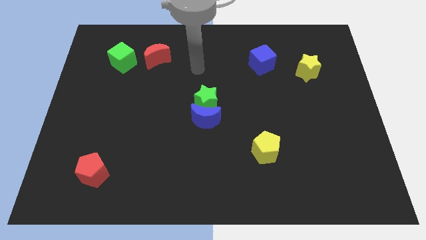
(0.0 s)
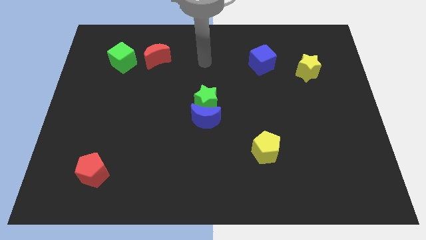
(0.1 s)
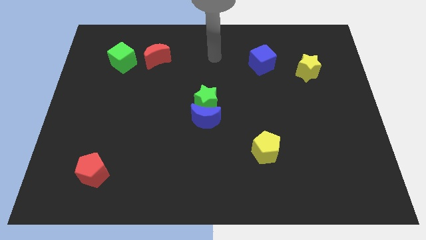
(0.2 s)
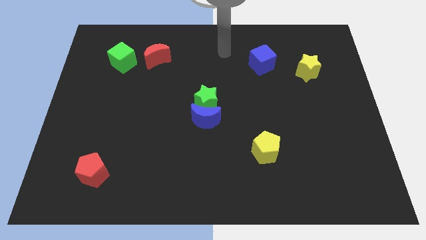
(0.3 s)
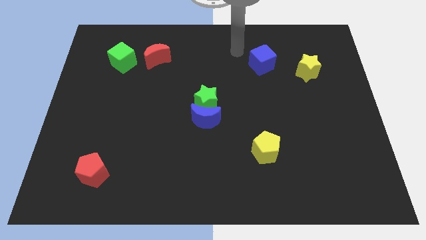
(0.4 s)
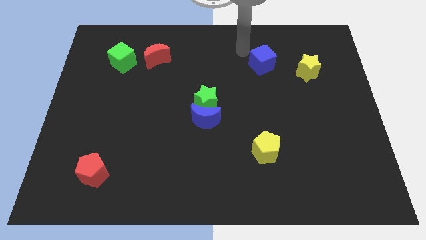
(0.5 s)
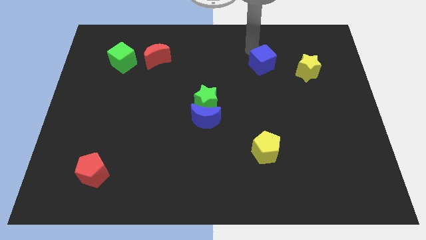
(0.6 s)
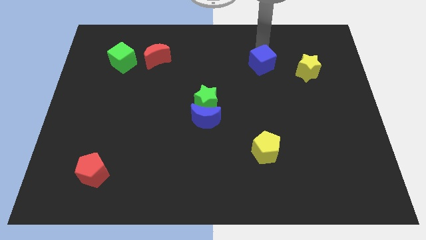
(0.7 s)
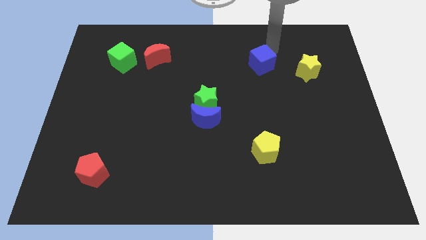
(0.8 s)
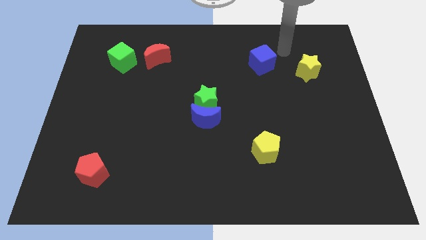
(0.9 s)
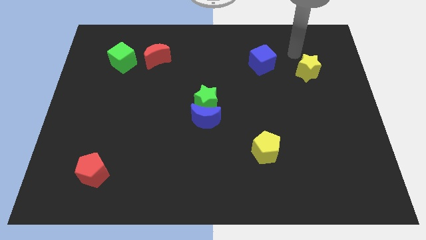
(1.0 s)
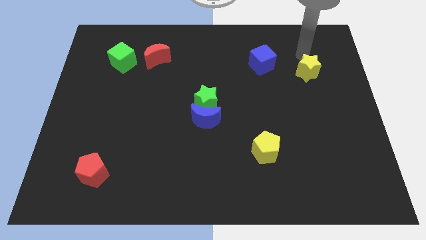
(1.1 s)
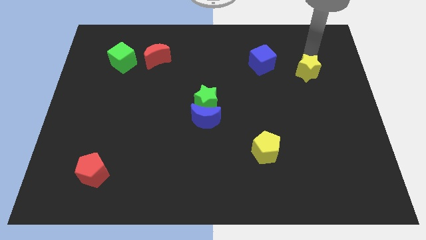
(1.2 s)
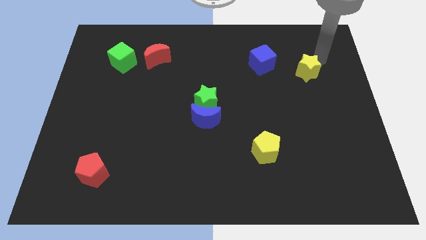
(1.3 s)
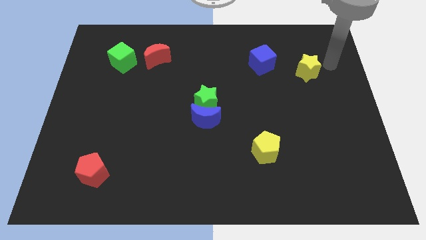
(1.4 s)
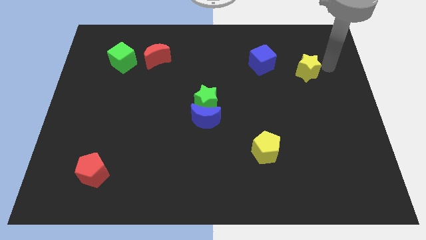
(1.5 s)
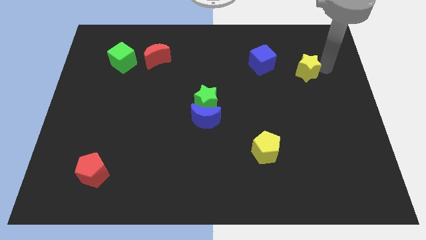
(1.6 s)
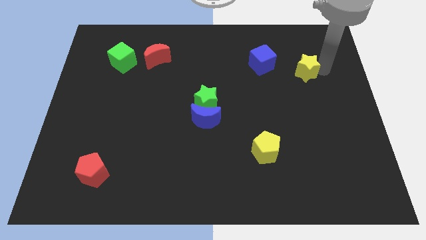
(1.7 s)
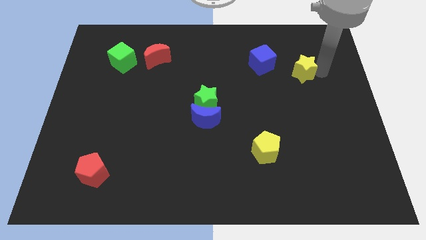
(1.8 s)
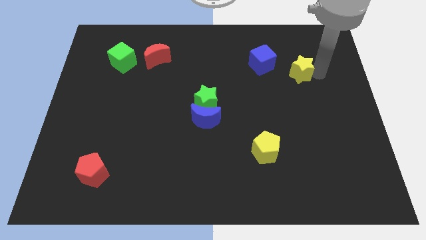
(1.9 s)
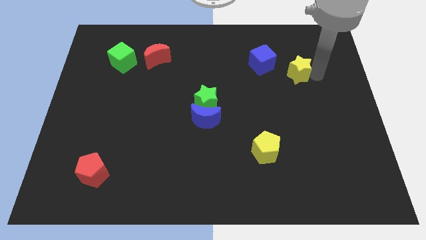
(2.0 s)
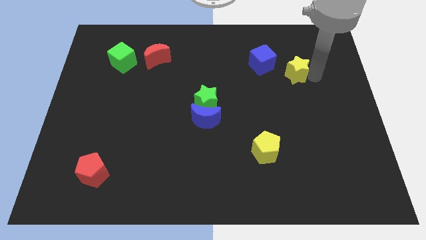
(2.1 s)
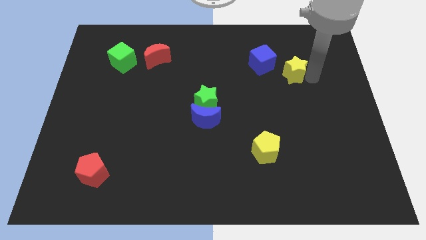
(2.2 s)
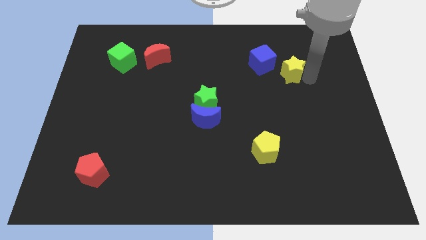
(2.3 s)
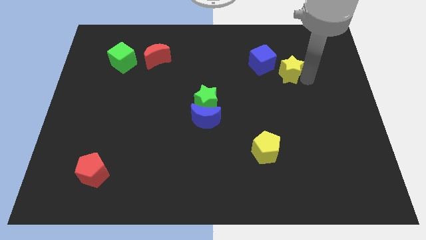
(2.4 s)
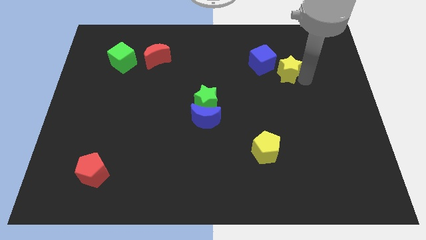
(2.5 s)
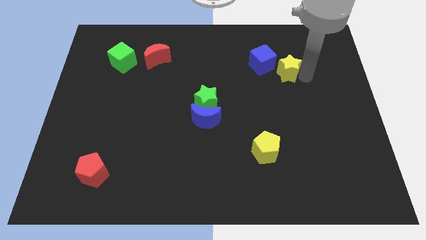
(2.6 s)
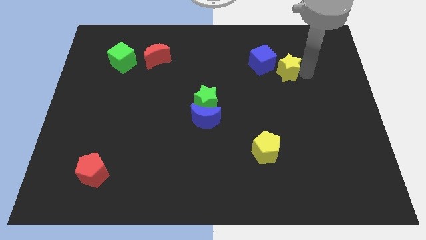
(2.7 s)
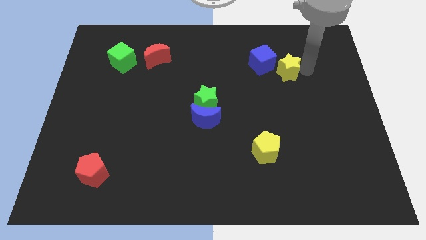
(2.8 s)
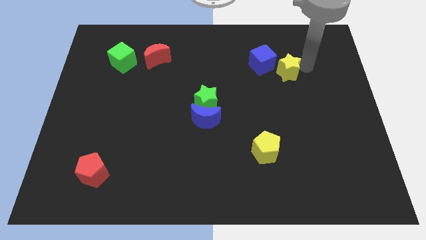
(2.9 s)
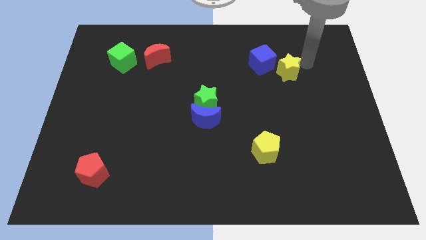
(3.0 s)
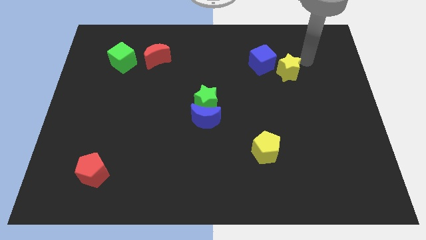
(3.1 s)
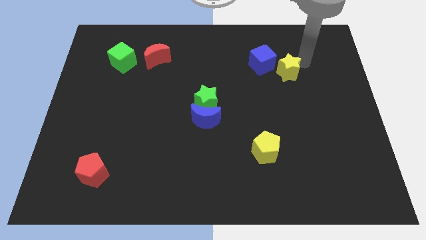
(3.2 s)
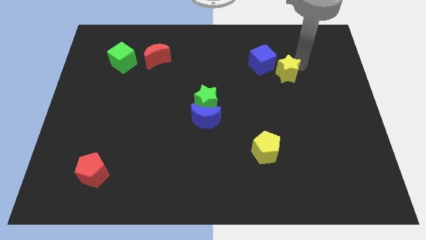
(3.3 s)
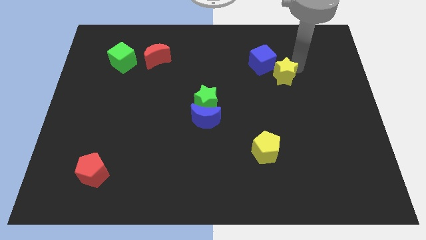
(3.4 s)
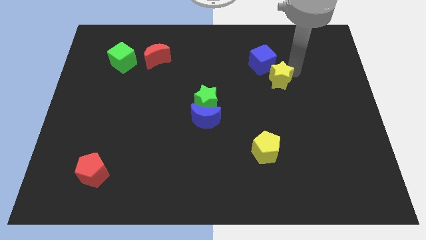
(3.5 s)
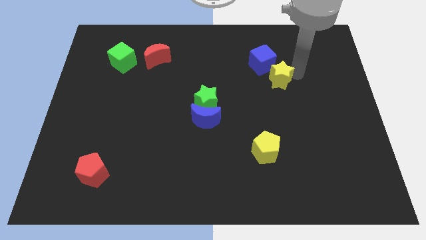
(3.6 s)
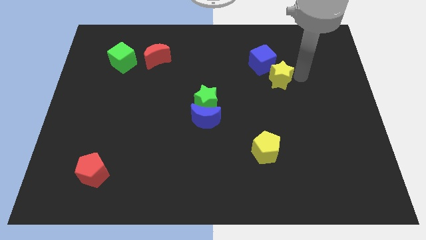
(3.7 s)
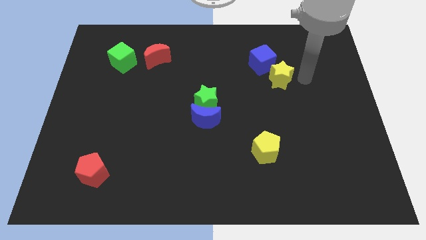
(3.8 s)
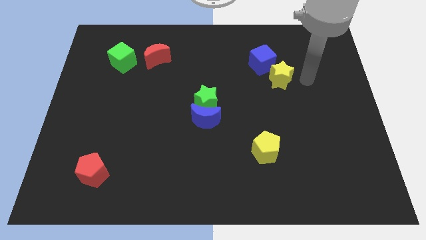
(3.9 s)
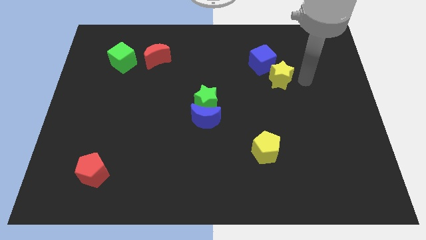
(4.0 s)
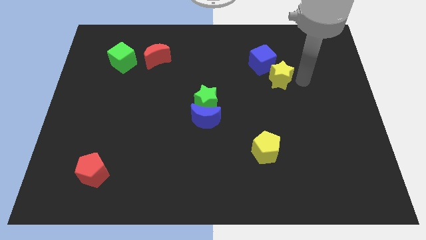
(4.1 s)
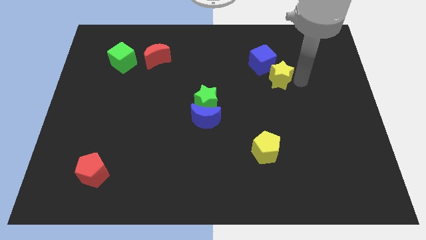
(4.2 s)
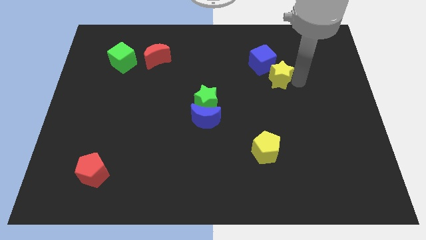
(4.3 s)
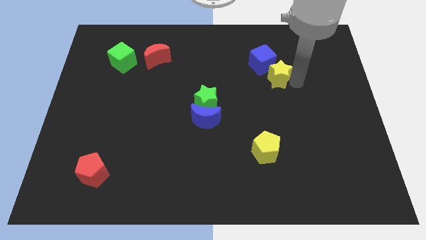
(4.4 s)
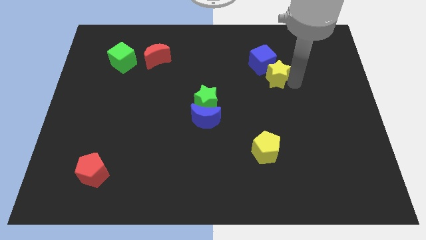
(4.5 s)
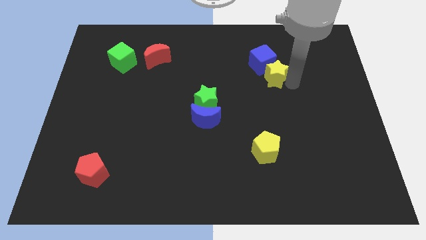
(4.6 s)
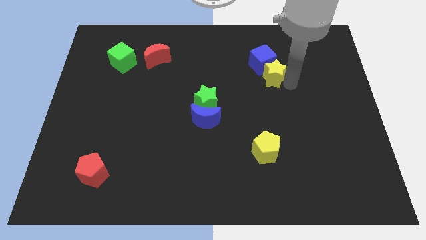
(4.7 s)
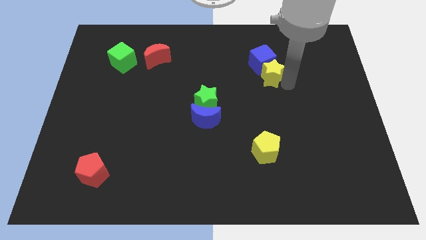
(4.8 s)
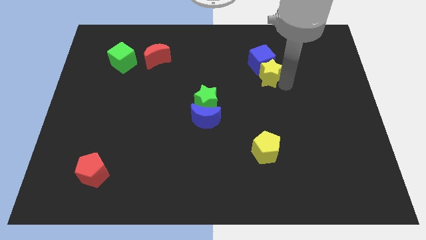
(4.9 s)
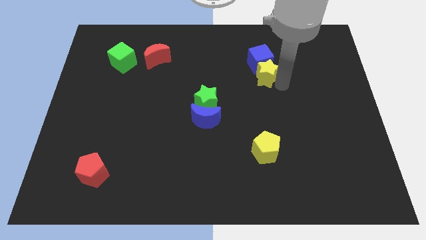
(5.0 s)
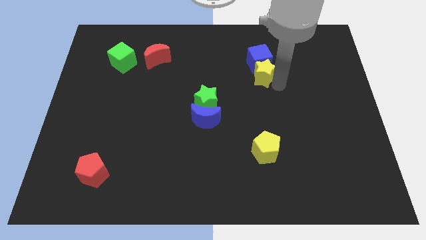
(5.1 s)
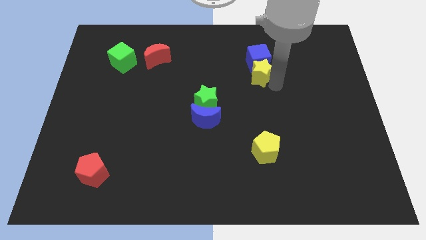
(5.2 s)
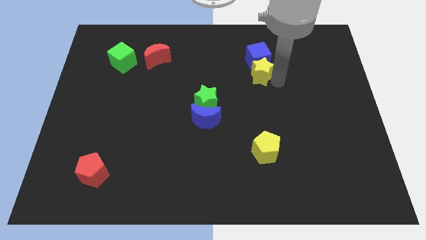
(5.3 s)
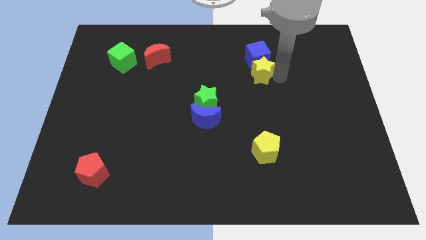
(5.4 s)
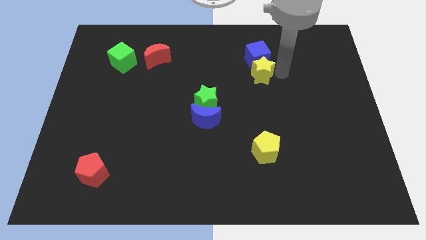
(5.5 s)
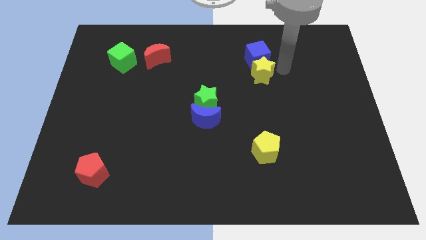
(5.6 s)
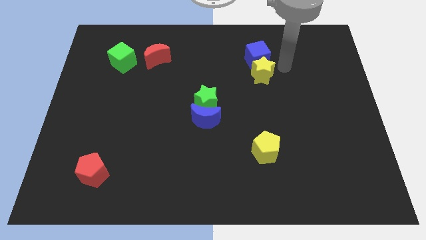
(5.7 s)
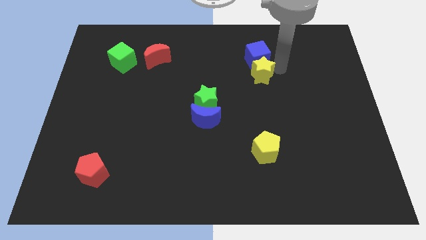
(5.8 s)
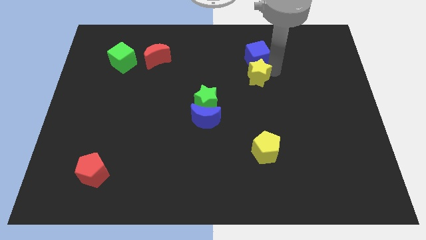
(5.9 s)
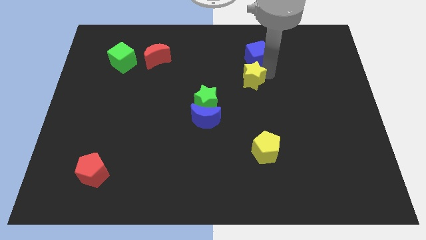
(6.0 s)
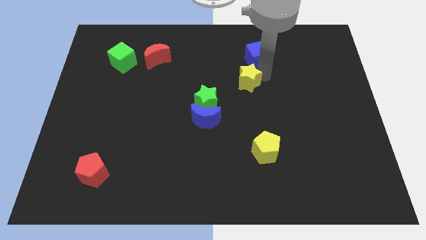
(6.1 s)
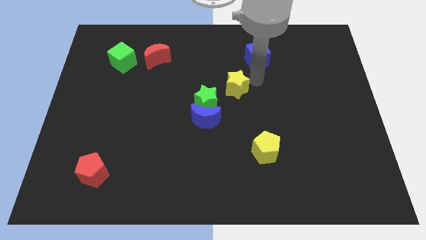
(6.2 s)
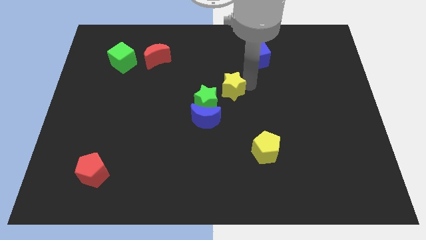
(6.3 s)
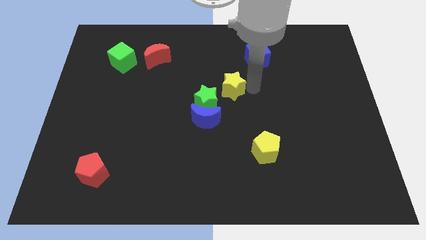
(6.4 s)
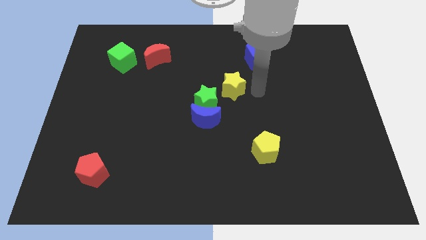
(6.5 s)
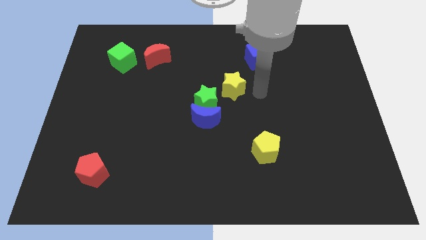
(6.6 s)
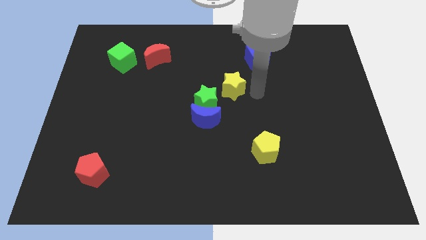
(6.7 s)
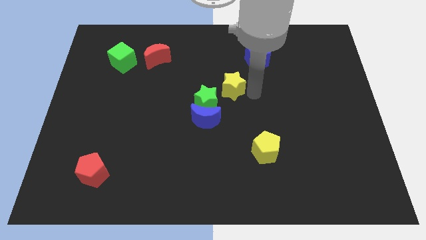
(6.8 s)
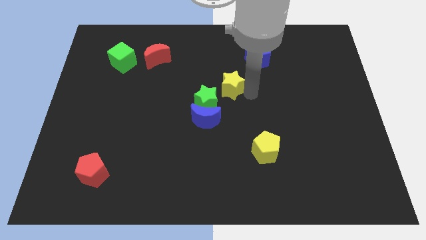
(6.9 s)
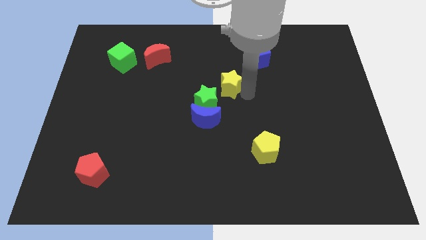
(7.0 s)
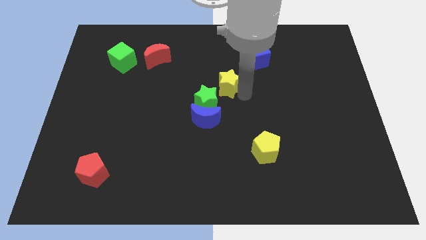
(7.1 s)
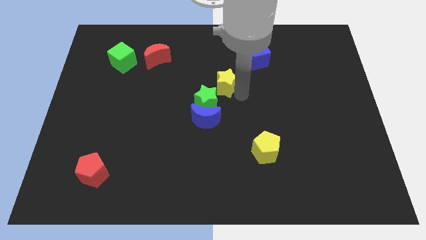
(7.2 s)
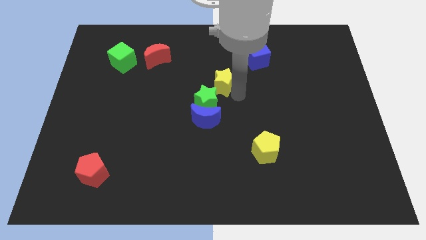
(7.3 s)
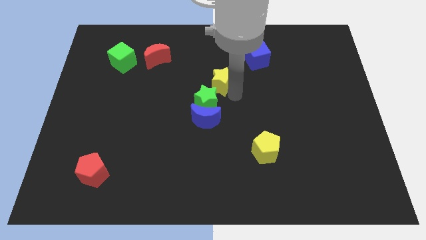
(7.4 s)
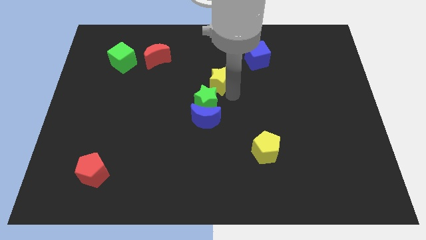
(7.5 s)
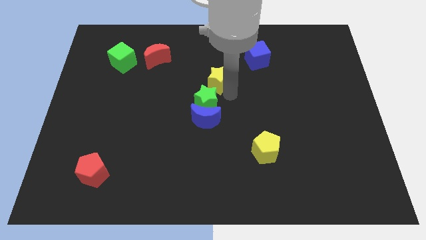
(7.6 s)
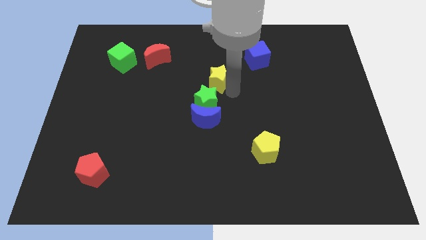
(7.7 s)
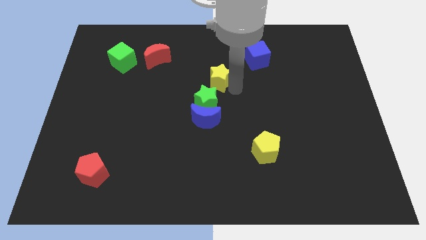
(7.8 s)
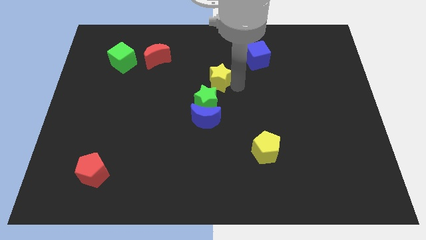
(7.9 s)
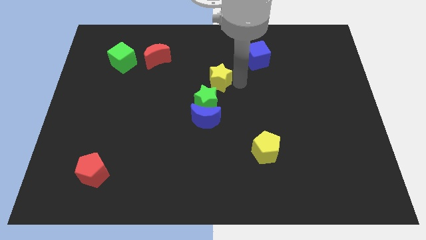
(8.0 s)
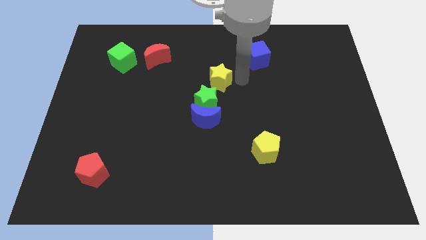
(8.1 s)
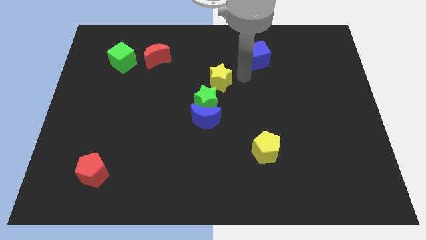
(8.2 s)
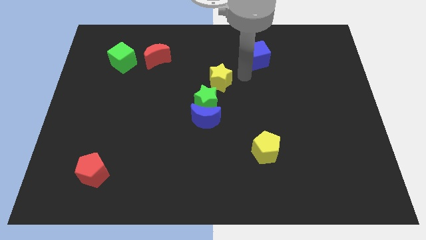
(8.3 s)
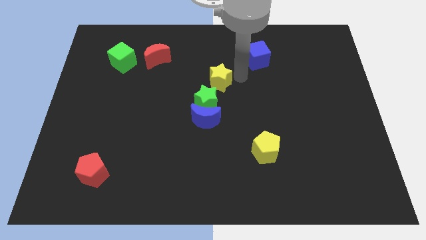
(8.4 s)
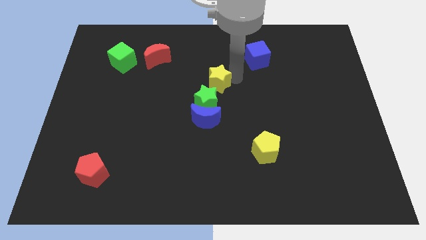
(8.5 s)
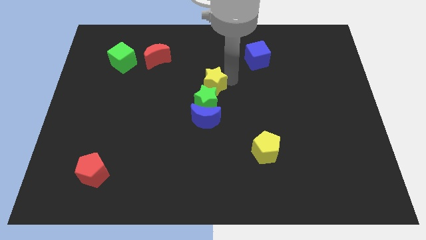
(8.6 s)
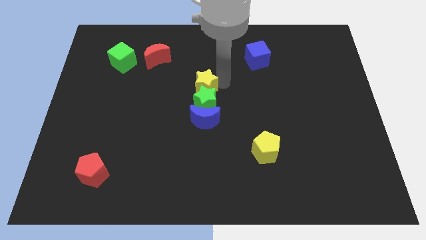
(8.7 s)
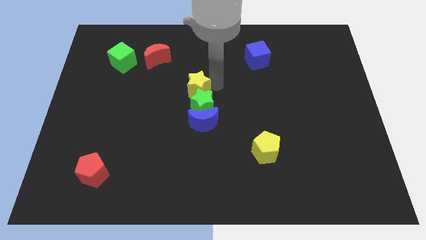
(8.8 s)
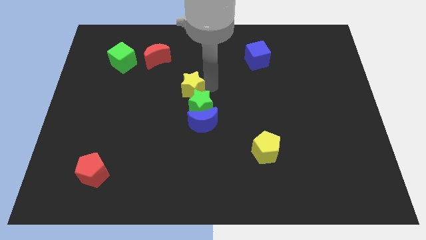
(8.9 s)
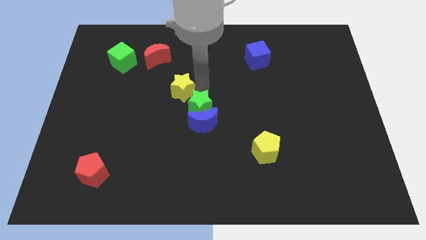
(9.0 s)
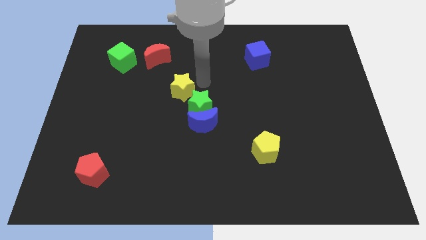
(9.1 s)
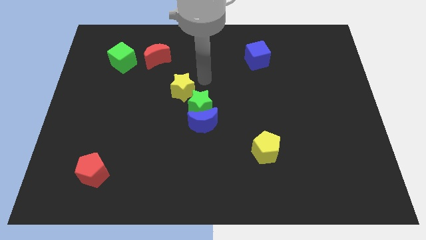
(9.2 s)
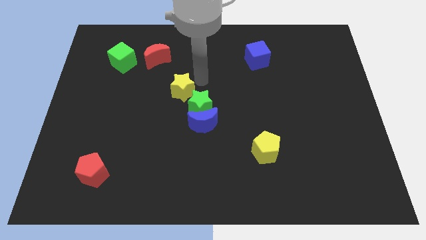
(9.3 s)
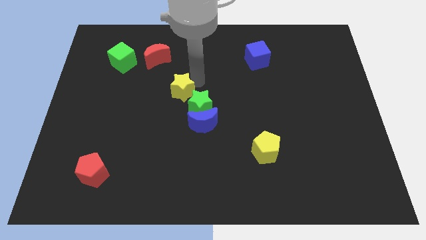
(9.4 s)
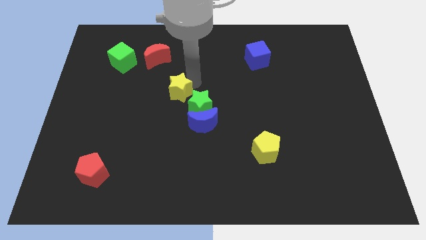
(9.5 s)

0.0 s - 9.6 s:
put the yellow star just left of the green star
